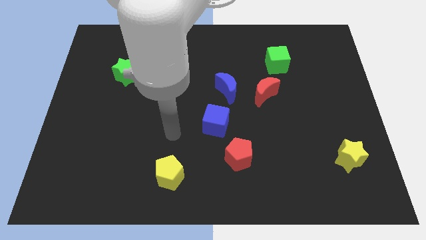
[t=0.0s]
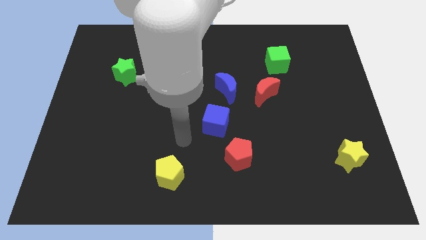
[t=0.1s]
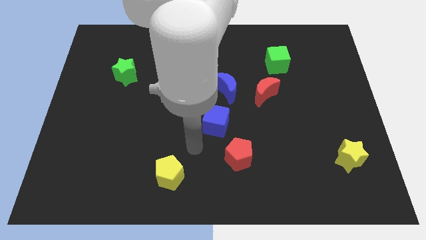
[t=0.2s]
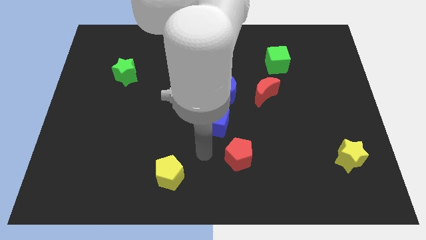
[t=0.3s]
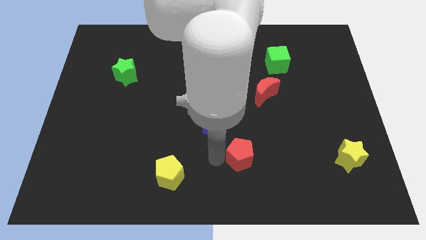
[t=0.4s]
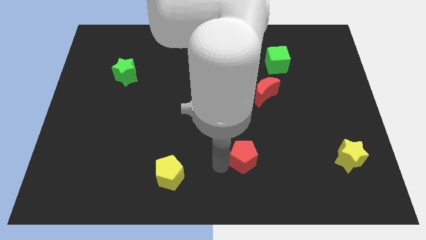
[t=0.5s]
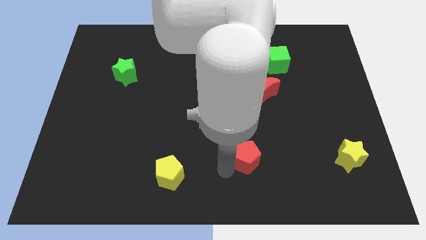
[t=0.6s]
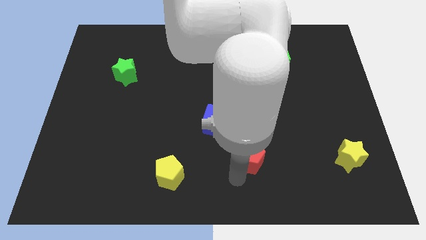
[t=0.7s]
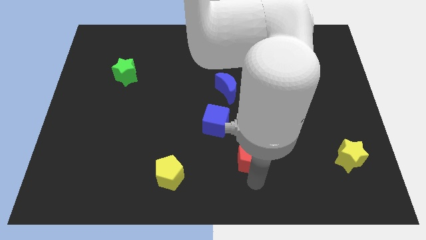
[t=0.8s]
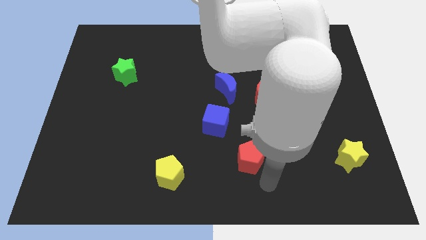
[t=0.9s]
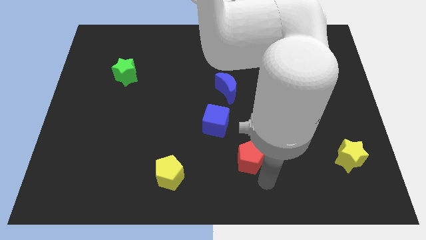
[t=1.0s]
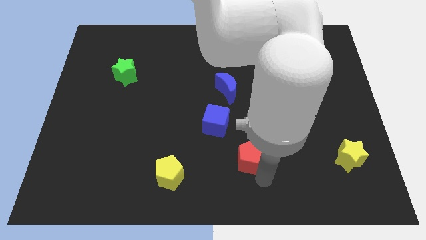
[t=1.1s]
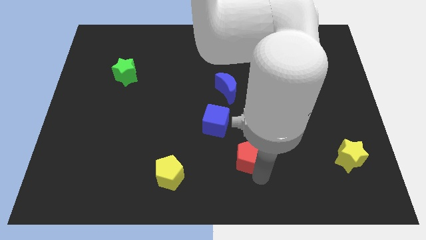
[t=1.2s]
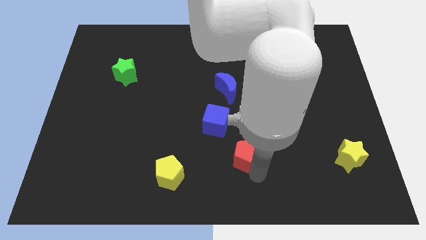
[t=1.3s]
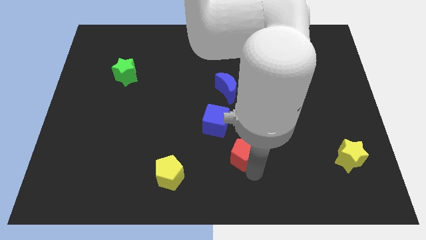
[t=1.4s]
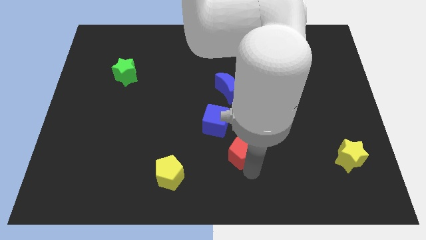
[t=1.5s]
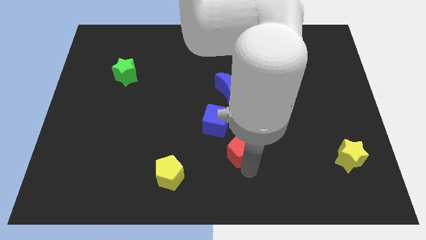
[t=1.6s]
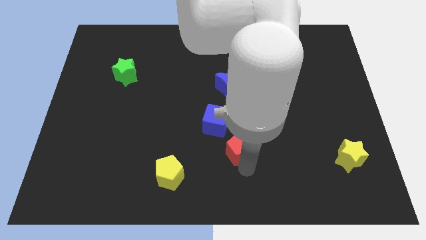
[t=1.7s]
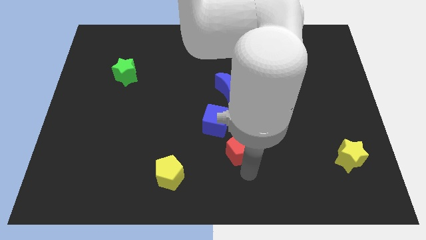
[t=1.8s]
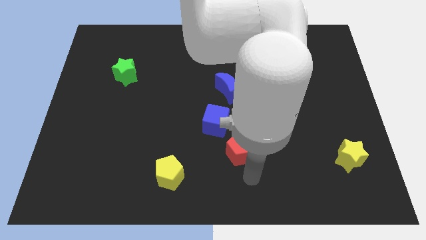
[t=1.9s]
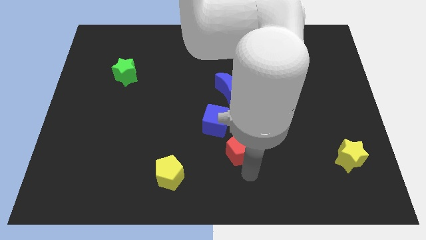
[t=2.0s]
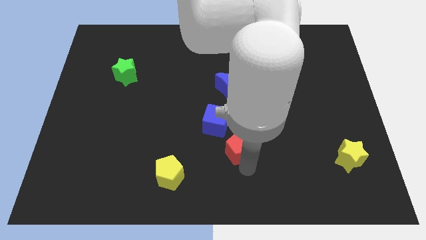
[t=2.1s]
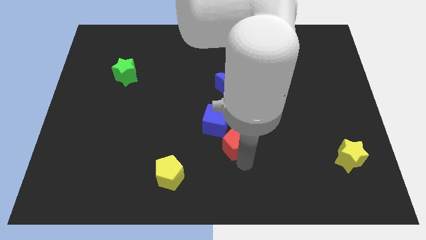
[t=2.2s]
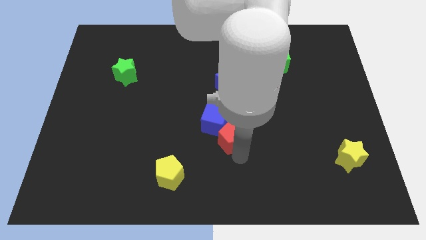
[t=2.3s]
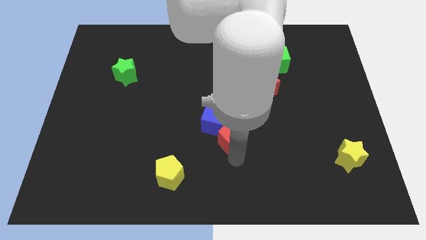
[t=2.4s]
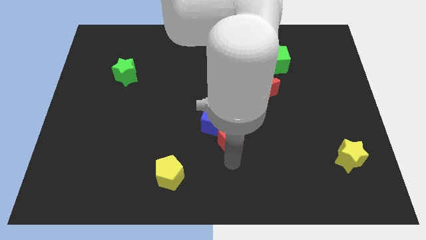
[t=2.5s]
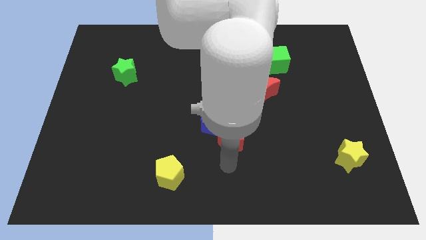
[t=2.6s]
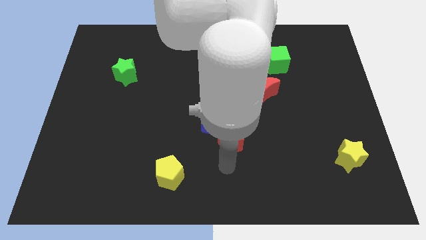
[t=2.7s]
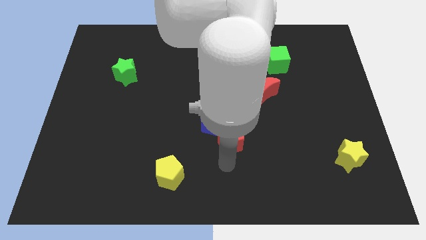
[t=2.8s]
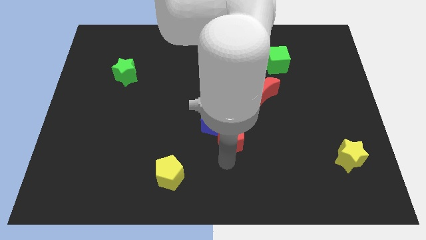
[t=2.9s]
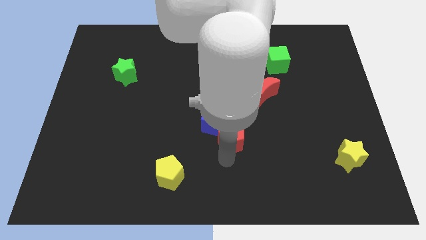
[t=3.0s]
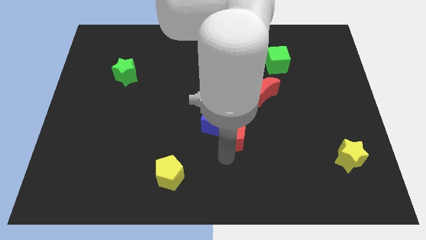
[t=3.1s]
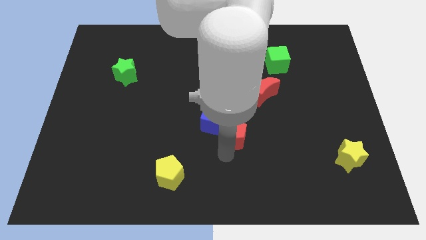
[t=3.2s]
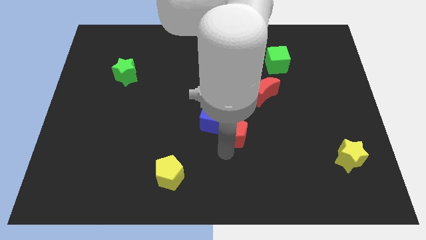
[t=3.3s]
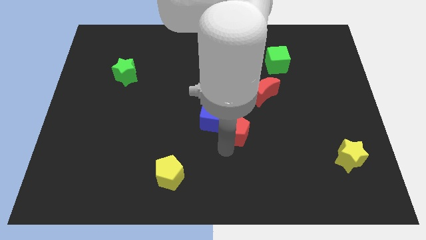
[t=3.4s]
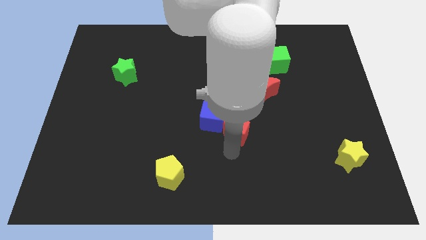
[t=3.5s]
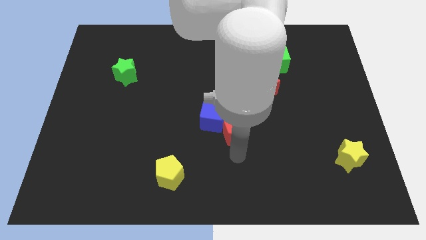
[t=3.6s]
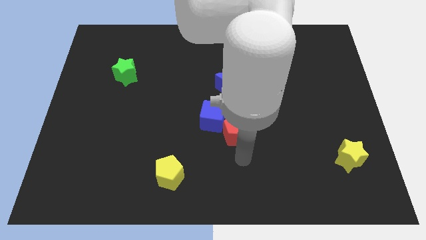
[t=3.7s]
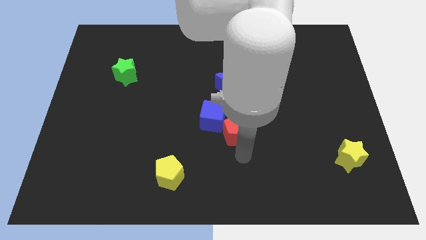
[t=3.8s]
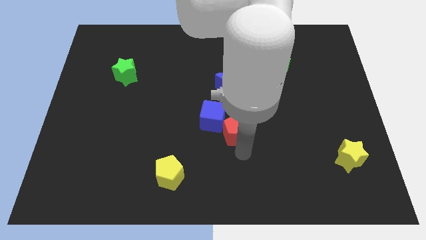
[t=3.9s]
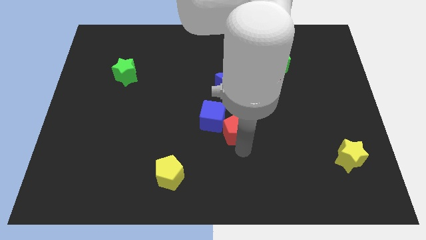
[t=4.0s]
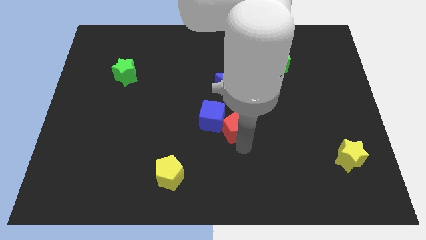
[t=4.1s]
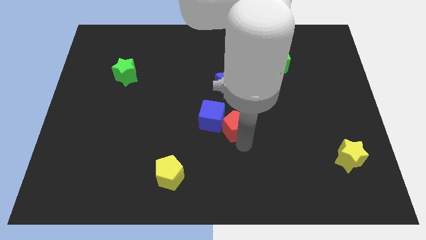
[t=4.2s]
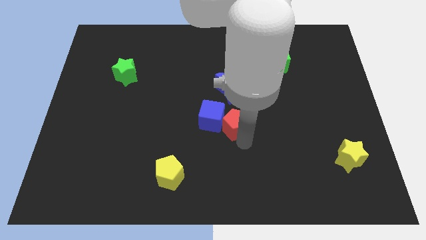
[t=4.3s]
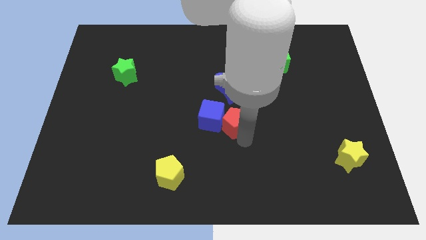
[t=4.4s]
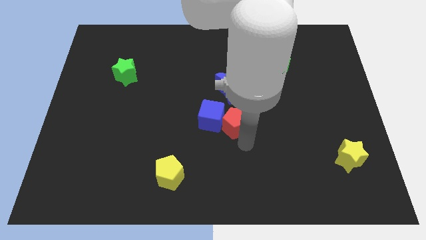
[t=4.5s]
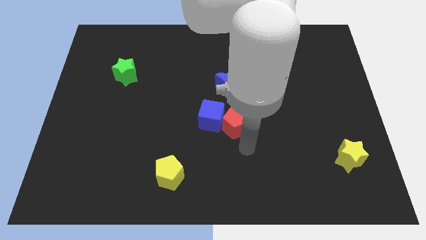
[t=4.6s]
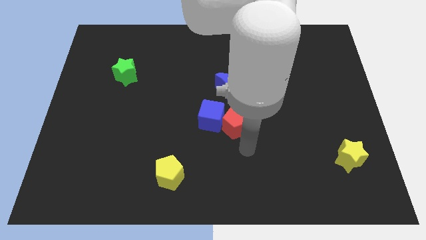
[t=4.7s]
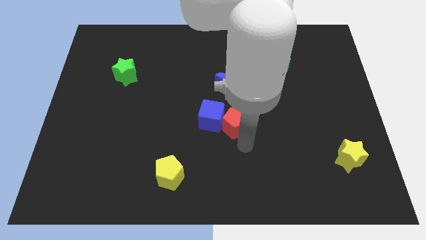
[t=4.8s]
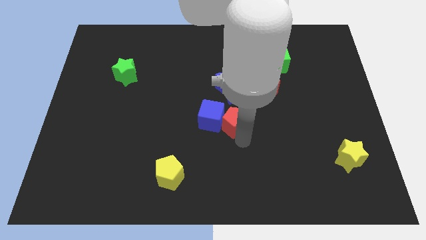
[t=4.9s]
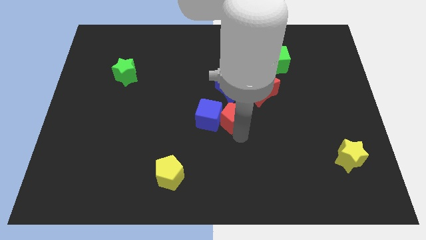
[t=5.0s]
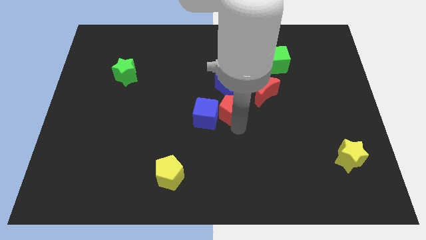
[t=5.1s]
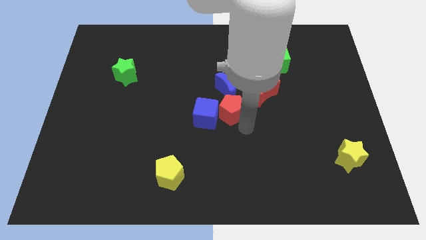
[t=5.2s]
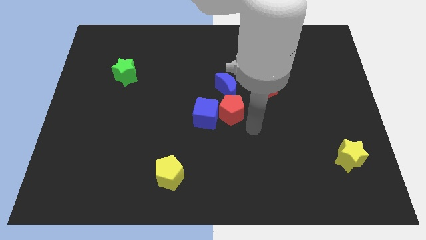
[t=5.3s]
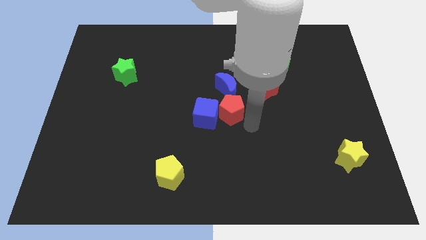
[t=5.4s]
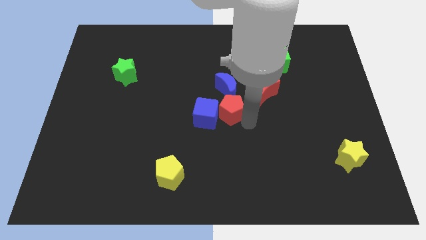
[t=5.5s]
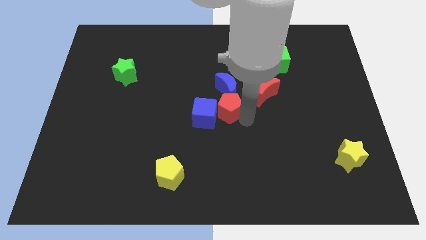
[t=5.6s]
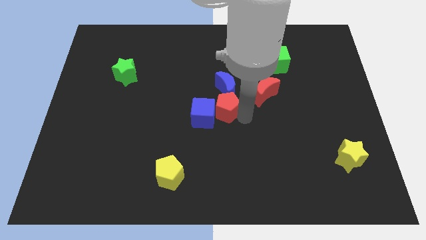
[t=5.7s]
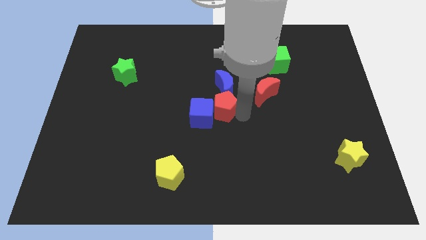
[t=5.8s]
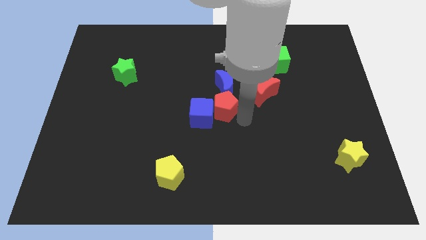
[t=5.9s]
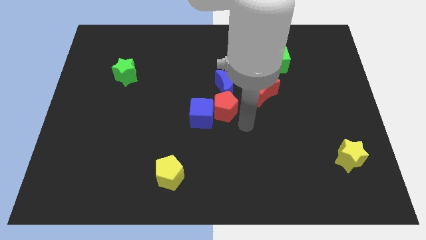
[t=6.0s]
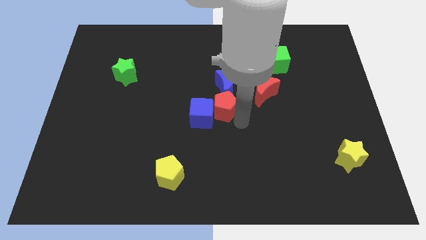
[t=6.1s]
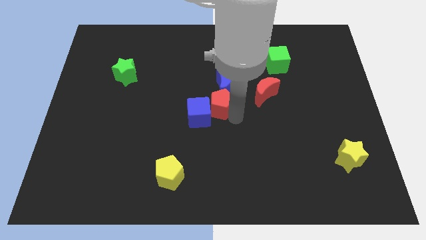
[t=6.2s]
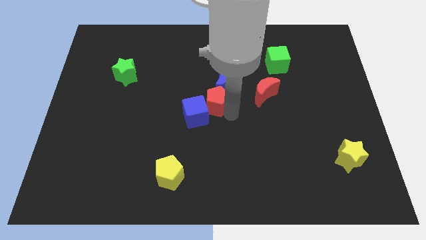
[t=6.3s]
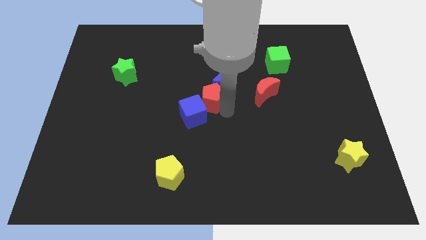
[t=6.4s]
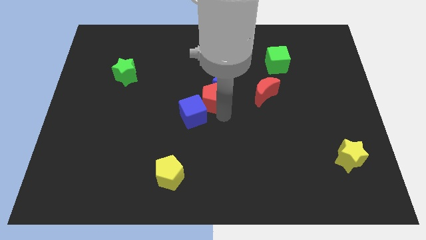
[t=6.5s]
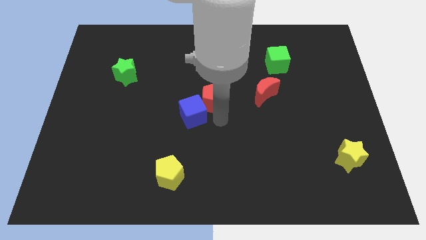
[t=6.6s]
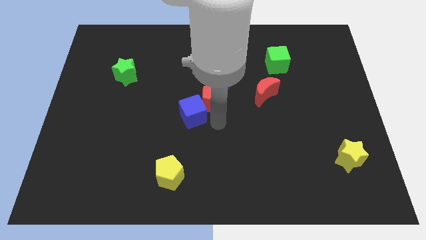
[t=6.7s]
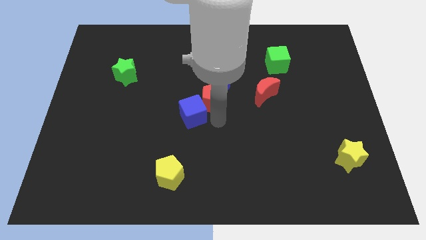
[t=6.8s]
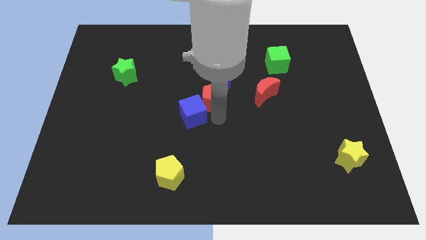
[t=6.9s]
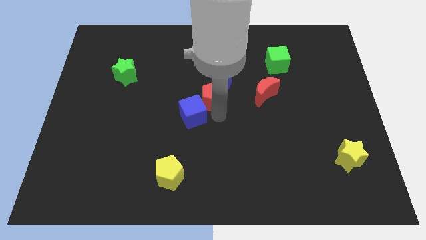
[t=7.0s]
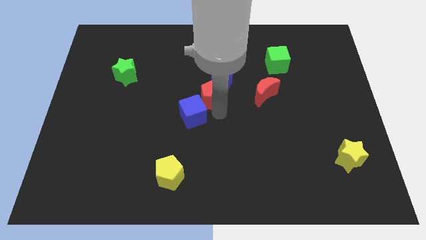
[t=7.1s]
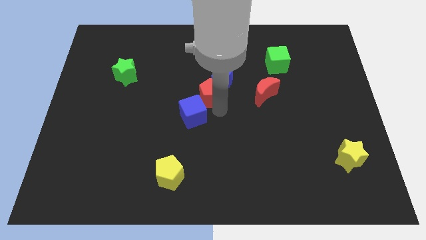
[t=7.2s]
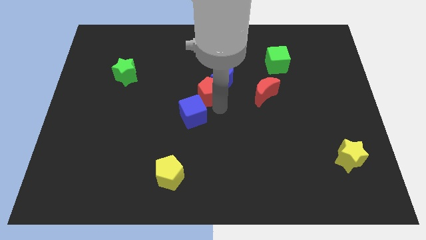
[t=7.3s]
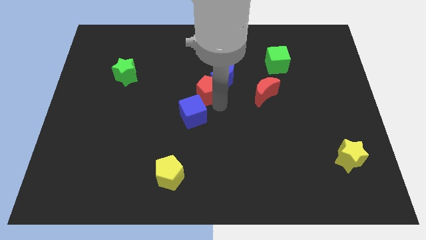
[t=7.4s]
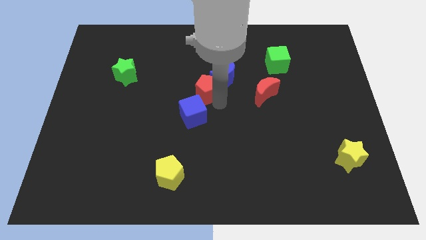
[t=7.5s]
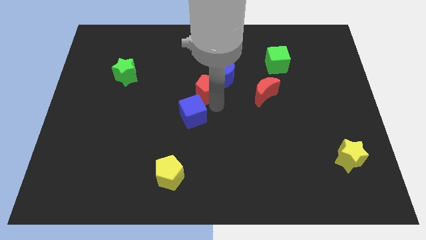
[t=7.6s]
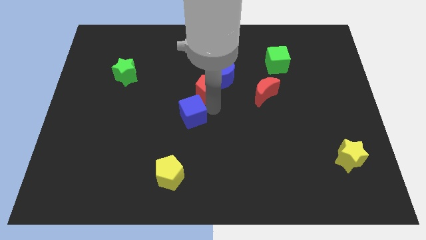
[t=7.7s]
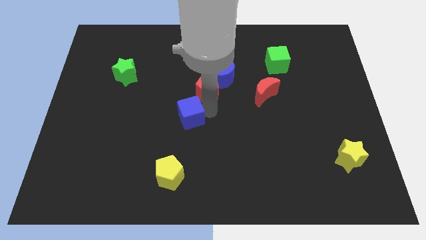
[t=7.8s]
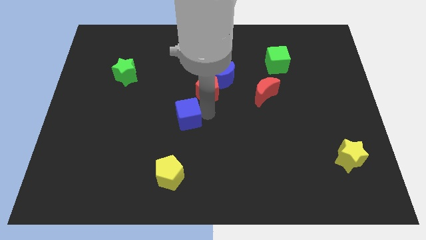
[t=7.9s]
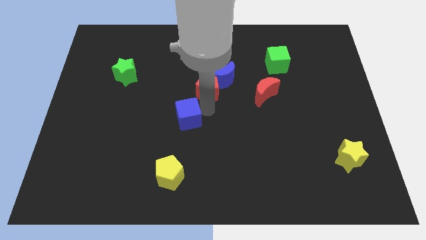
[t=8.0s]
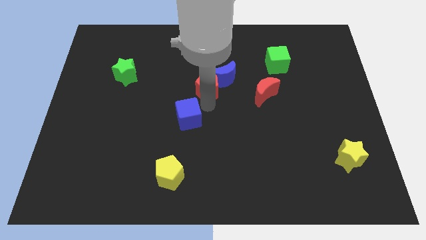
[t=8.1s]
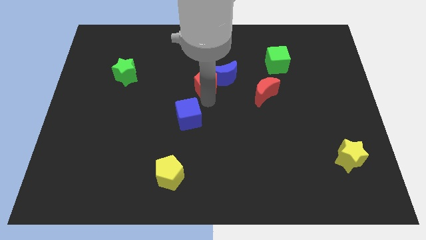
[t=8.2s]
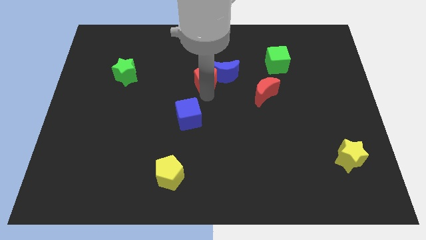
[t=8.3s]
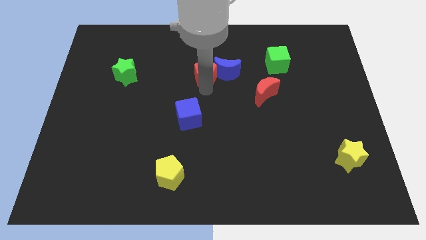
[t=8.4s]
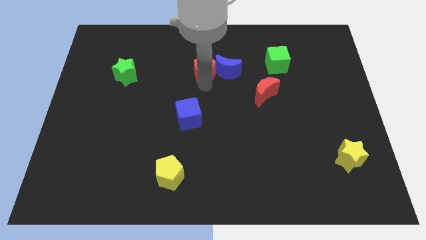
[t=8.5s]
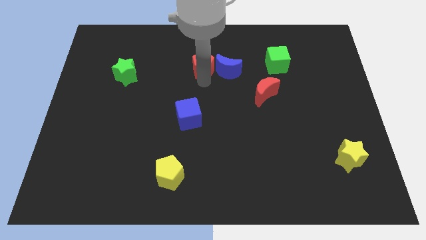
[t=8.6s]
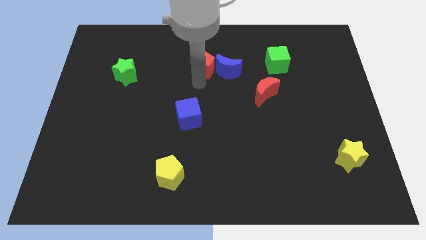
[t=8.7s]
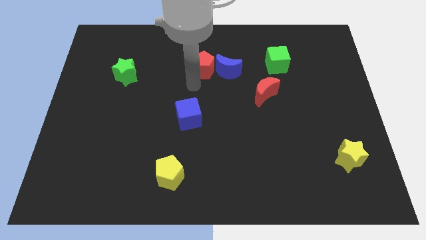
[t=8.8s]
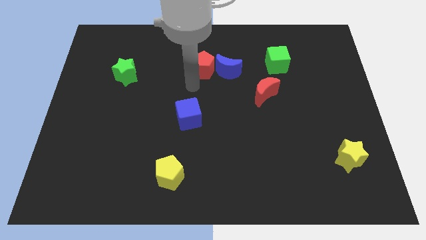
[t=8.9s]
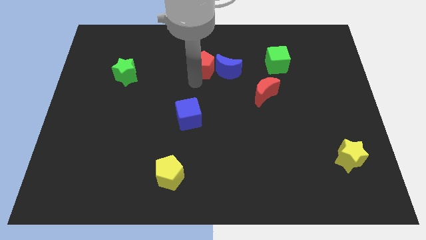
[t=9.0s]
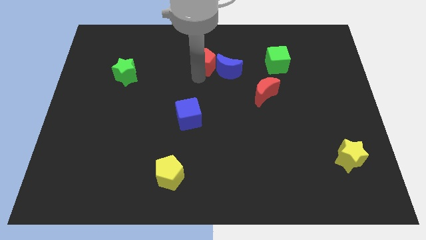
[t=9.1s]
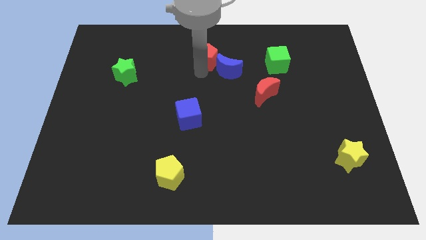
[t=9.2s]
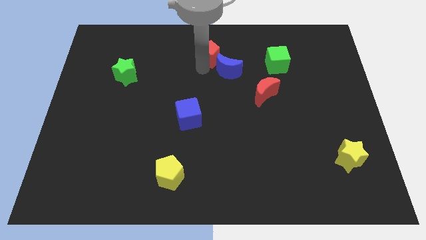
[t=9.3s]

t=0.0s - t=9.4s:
slide the red pentagon to the top
